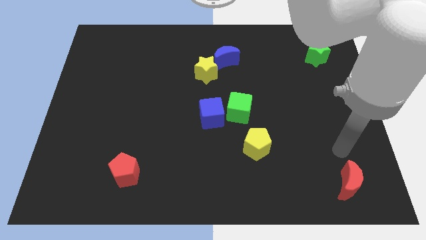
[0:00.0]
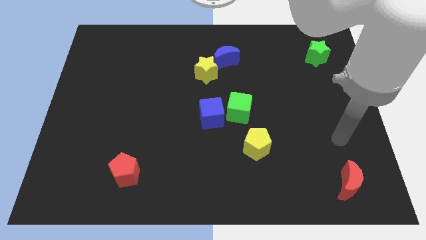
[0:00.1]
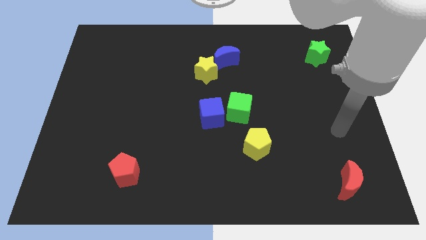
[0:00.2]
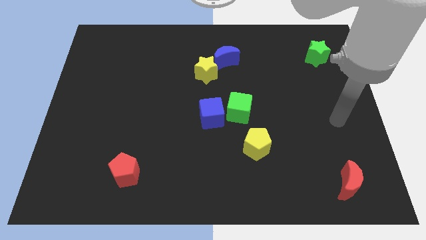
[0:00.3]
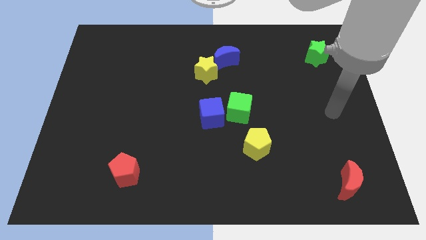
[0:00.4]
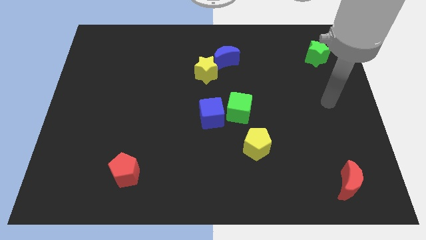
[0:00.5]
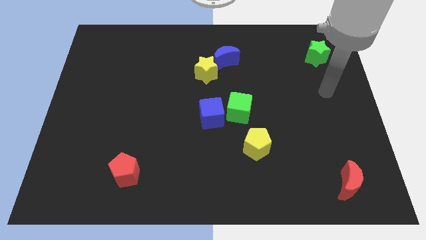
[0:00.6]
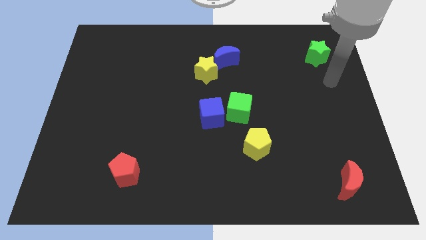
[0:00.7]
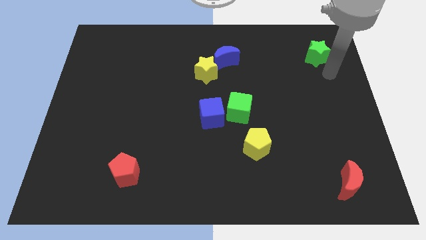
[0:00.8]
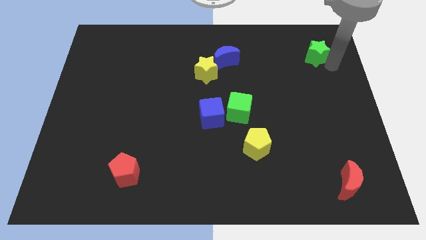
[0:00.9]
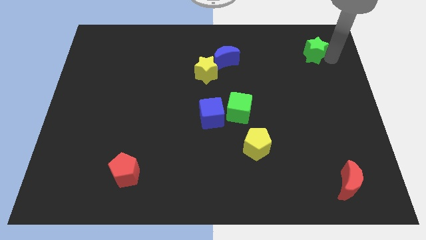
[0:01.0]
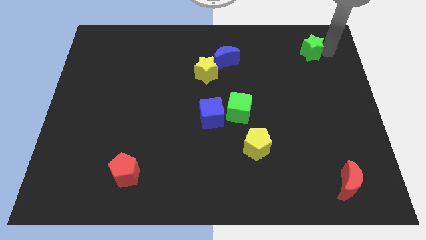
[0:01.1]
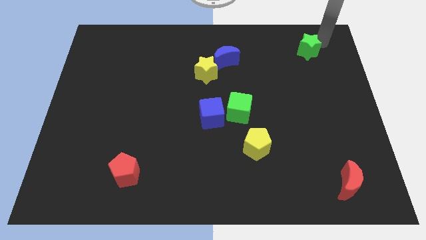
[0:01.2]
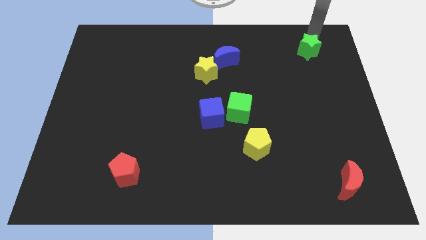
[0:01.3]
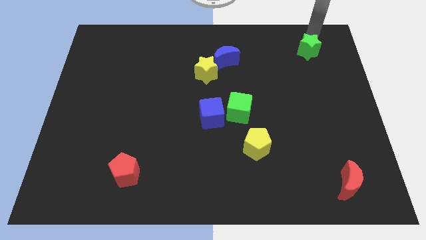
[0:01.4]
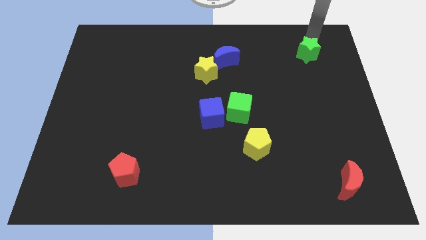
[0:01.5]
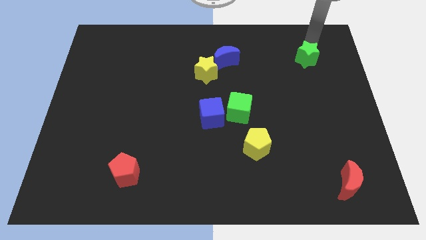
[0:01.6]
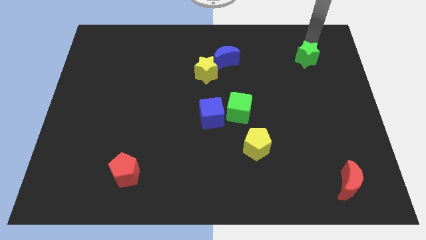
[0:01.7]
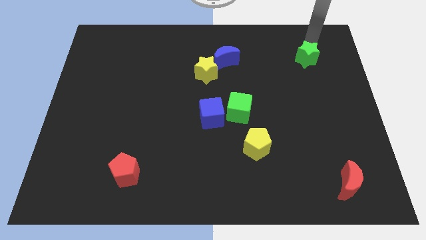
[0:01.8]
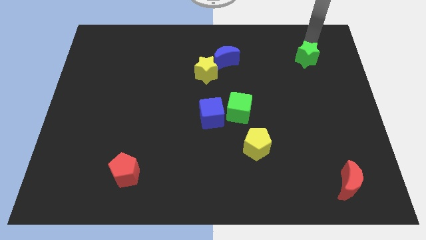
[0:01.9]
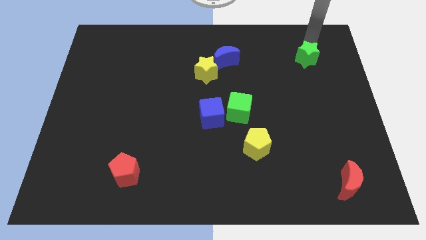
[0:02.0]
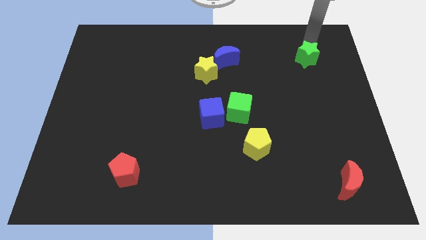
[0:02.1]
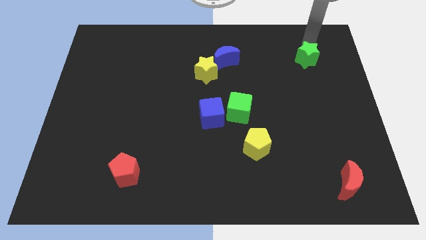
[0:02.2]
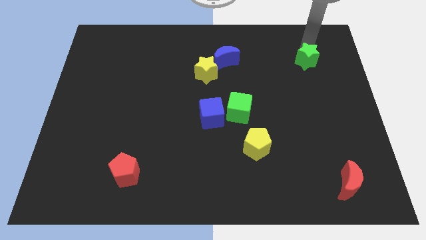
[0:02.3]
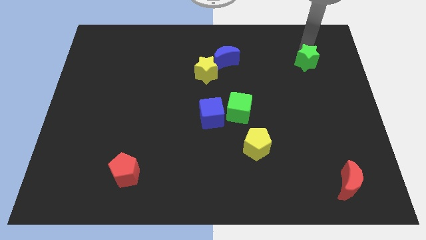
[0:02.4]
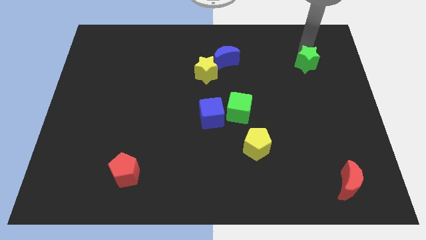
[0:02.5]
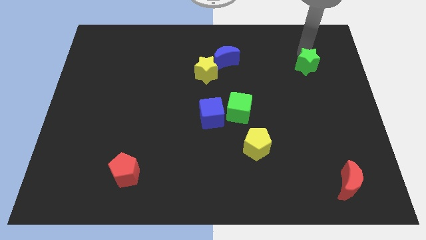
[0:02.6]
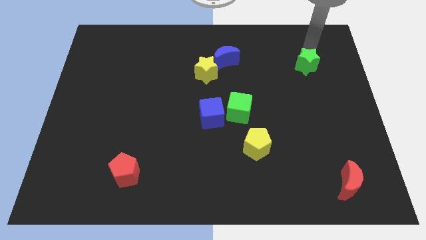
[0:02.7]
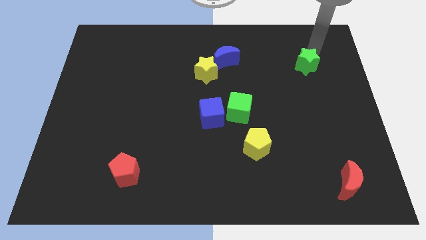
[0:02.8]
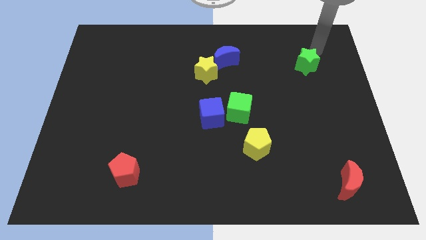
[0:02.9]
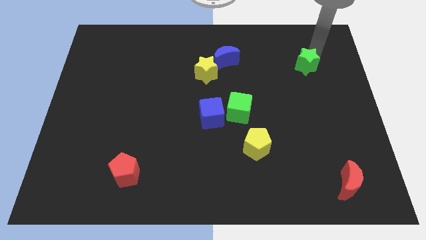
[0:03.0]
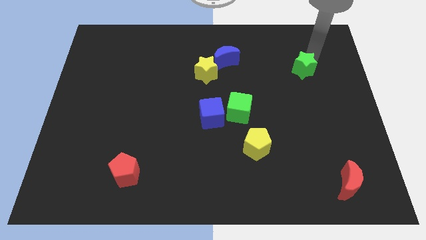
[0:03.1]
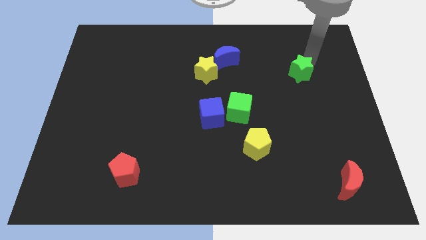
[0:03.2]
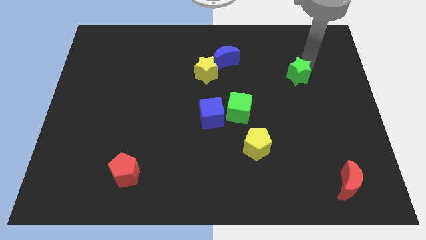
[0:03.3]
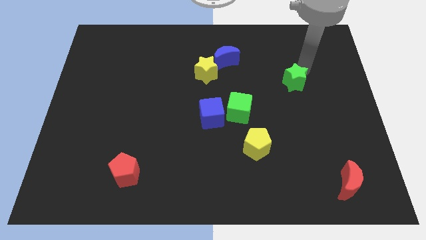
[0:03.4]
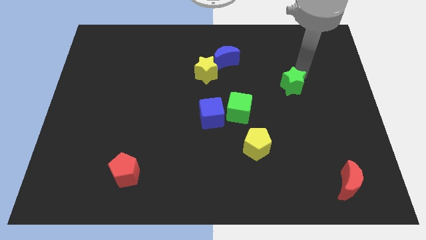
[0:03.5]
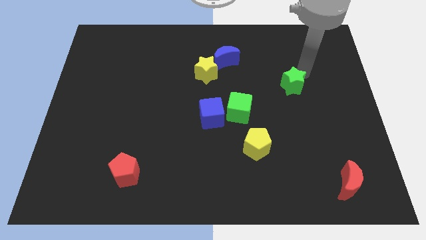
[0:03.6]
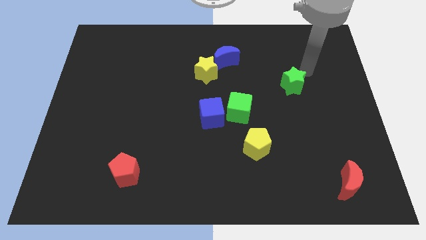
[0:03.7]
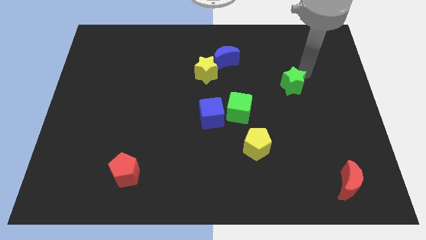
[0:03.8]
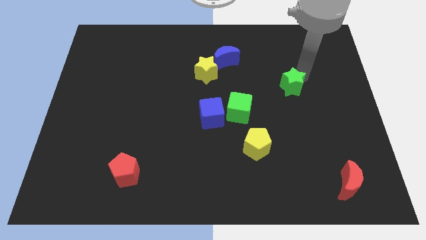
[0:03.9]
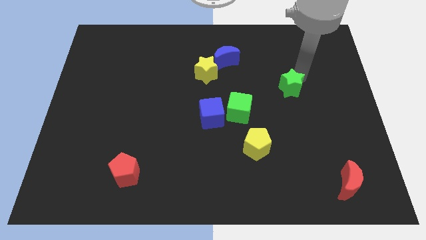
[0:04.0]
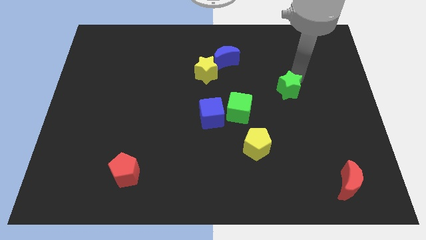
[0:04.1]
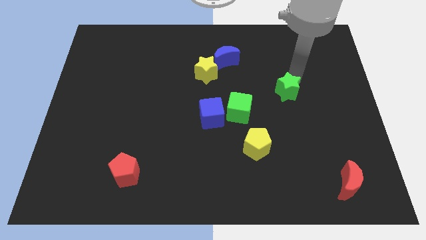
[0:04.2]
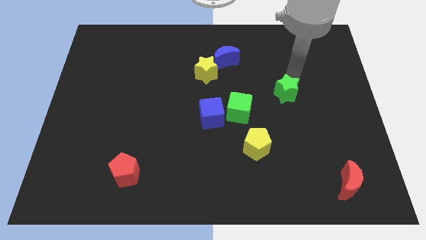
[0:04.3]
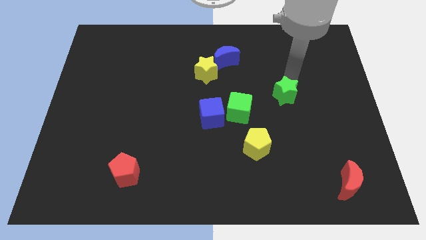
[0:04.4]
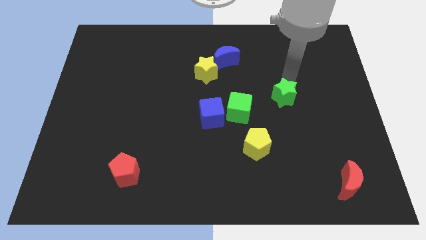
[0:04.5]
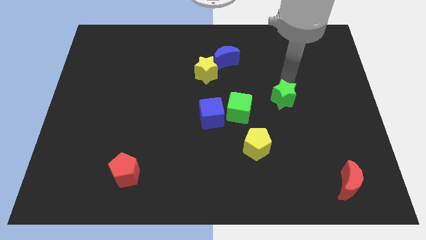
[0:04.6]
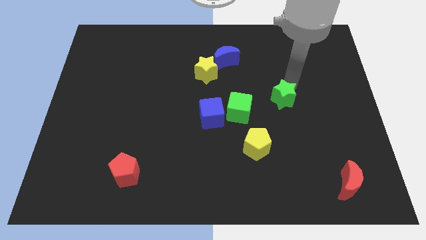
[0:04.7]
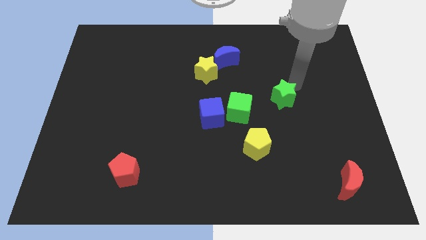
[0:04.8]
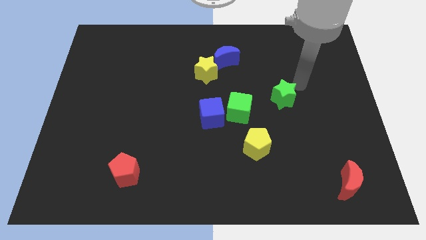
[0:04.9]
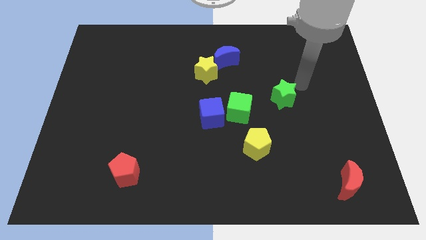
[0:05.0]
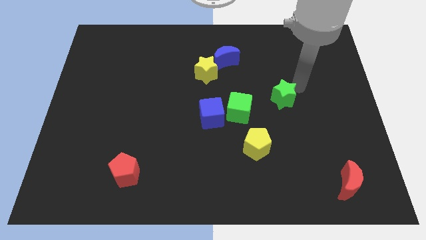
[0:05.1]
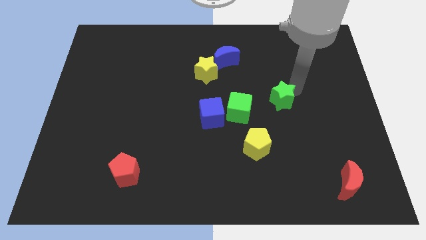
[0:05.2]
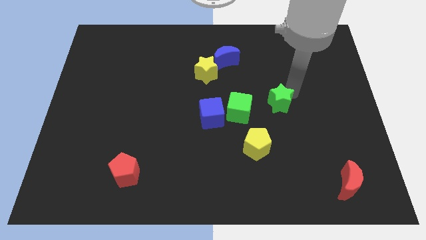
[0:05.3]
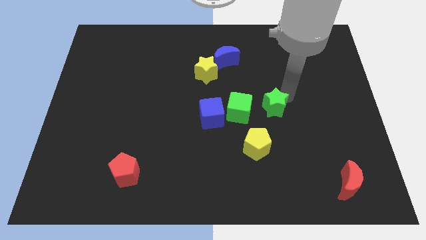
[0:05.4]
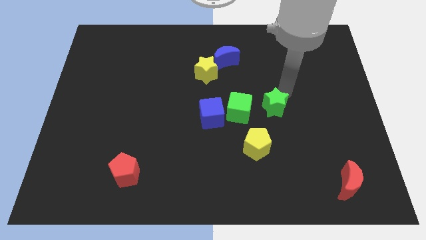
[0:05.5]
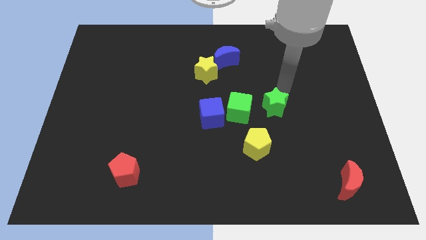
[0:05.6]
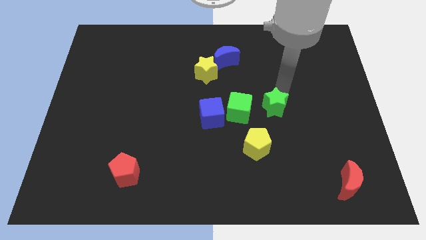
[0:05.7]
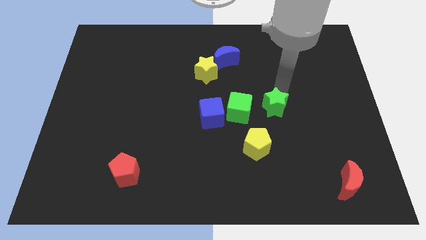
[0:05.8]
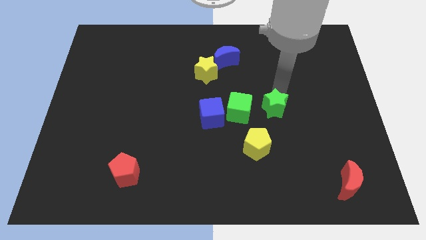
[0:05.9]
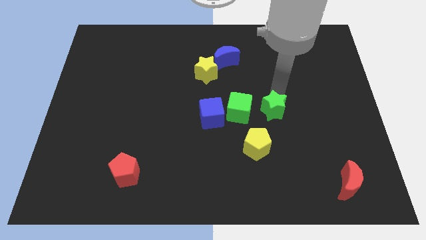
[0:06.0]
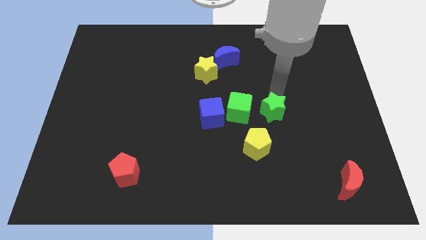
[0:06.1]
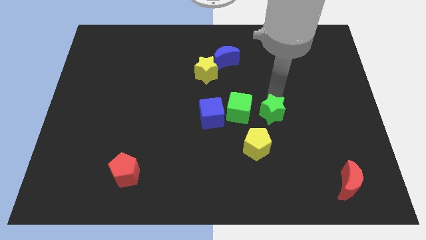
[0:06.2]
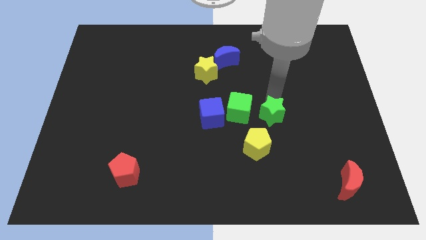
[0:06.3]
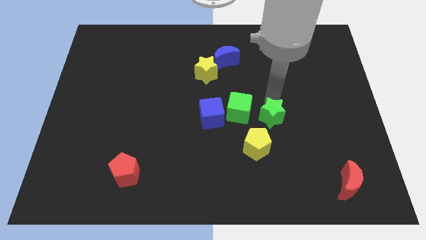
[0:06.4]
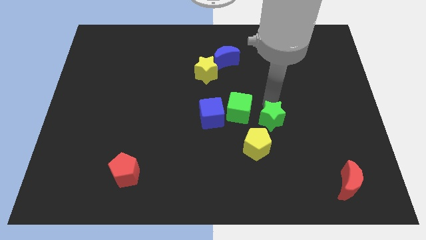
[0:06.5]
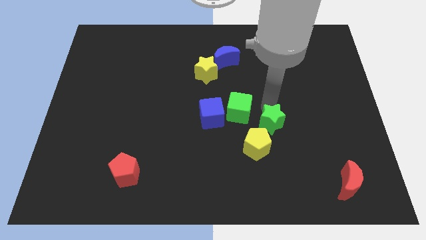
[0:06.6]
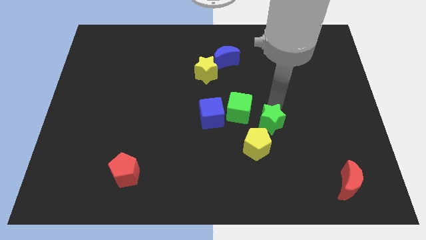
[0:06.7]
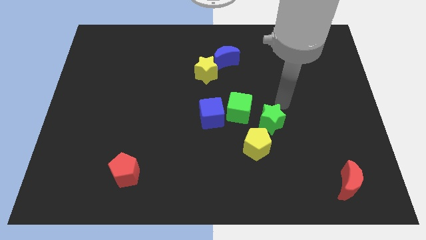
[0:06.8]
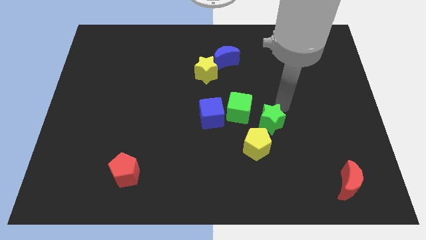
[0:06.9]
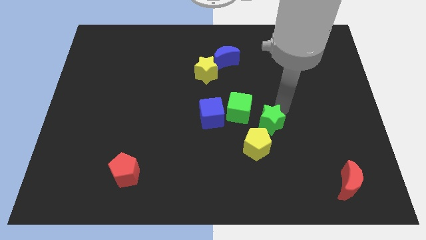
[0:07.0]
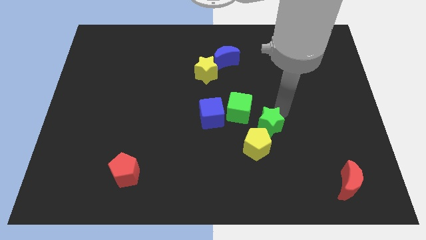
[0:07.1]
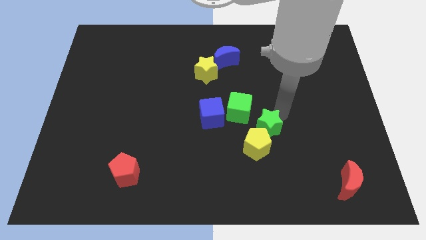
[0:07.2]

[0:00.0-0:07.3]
push the green star close to the yellow pentagon

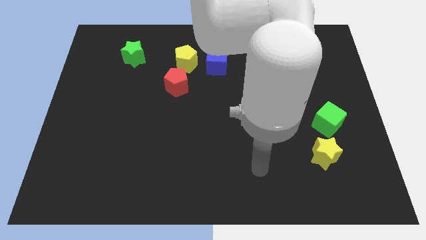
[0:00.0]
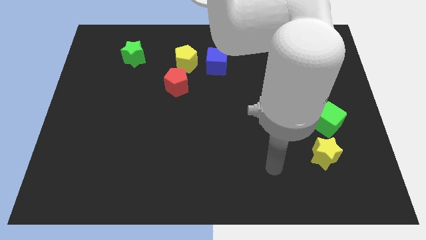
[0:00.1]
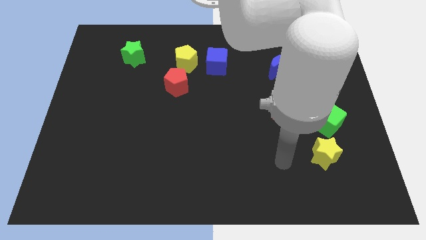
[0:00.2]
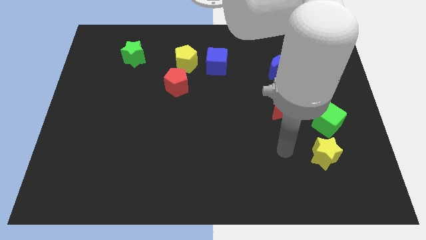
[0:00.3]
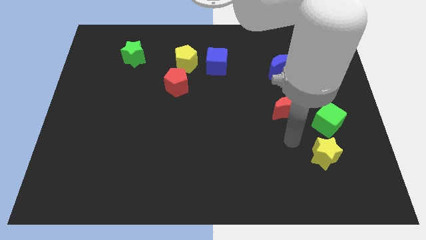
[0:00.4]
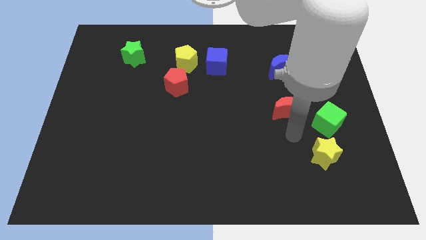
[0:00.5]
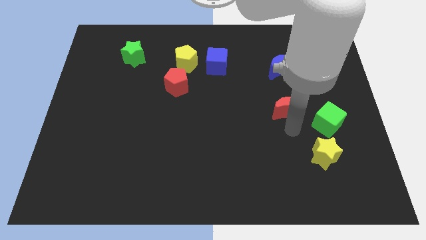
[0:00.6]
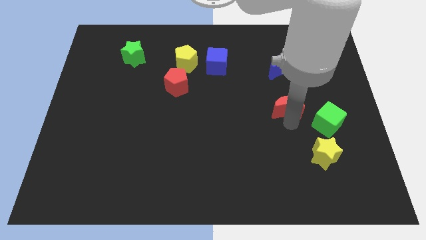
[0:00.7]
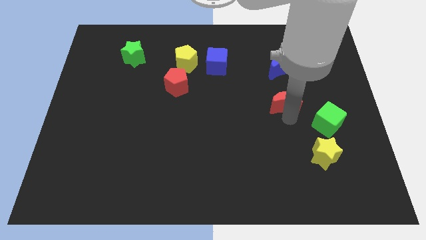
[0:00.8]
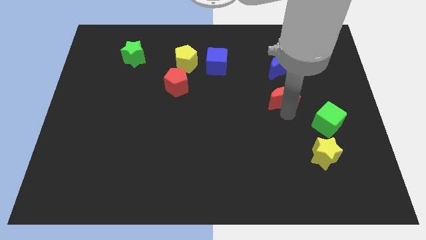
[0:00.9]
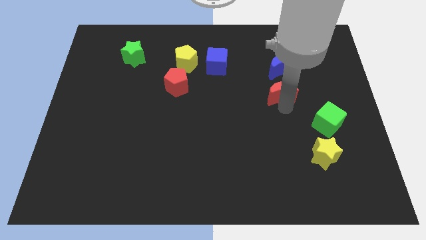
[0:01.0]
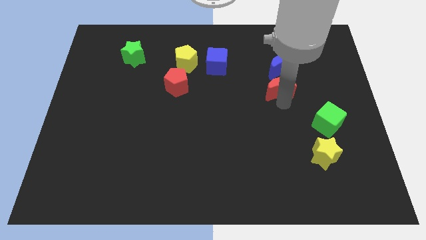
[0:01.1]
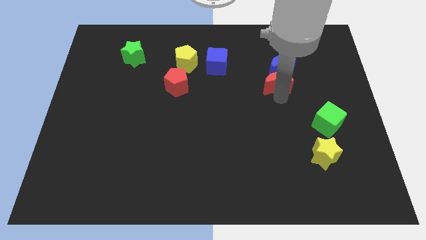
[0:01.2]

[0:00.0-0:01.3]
put the red moon towards the blue moon
